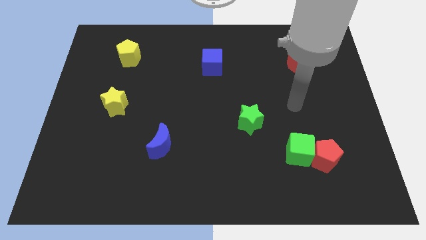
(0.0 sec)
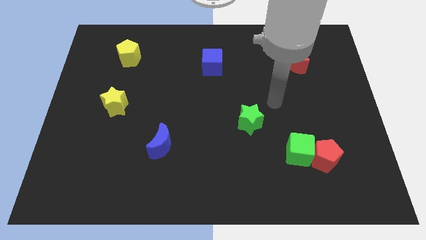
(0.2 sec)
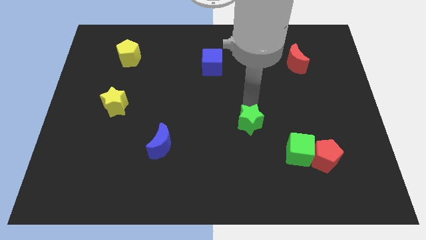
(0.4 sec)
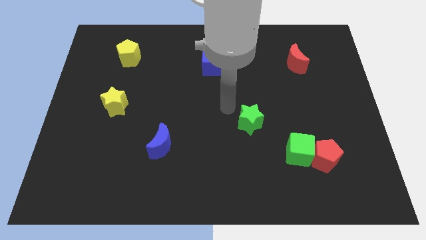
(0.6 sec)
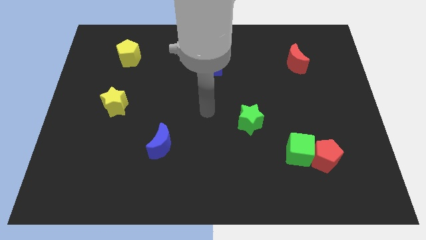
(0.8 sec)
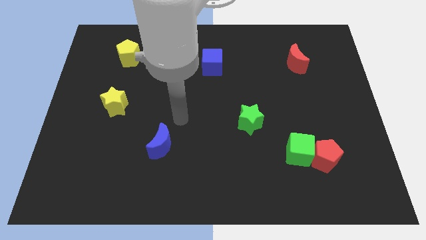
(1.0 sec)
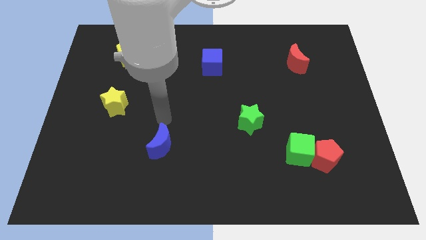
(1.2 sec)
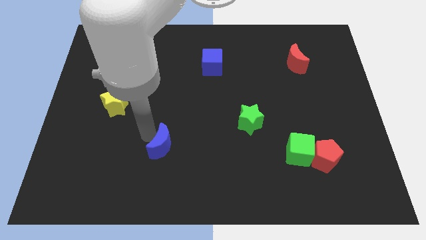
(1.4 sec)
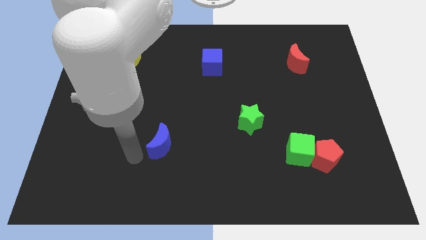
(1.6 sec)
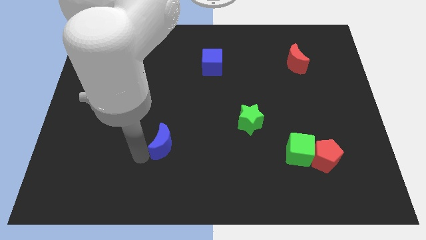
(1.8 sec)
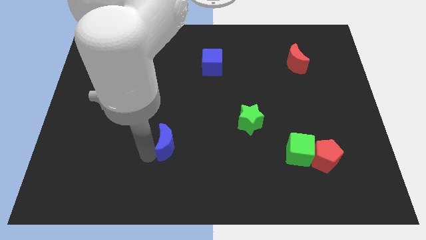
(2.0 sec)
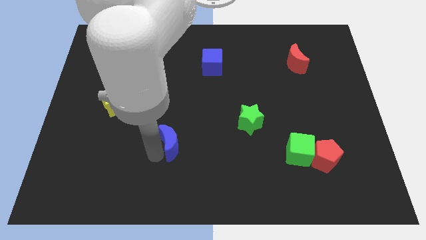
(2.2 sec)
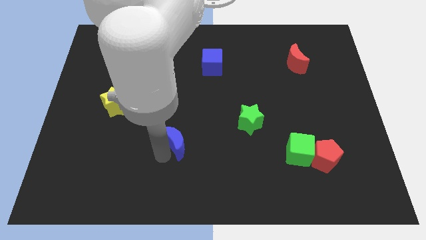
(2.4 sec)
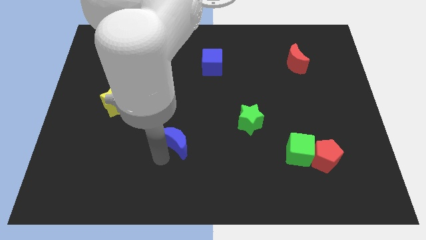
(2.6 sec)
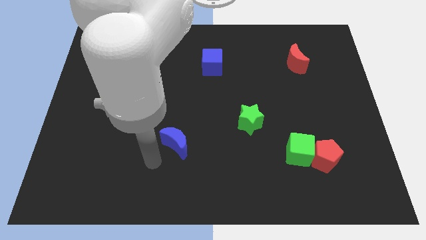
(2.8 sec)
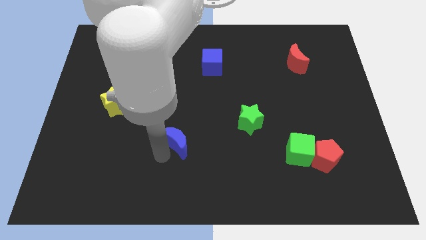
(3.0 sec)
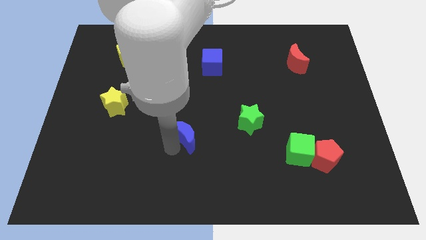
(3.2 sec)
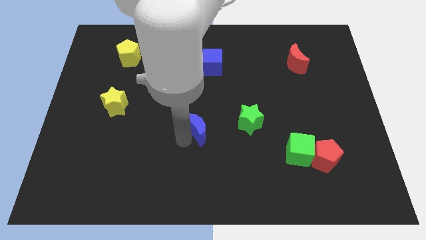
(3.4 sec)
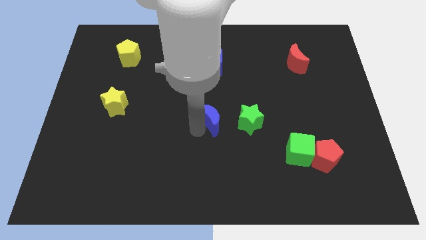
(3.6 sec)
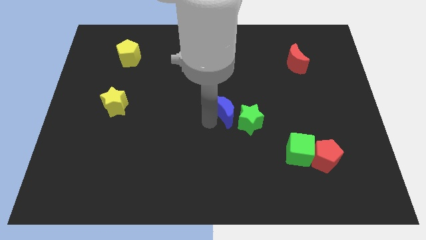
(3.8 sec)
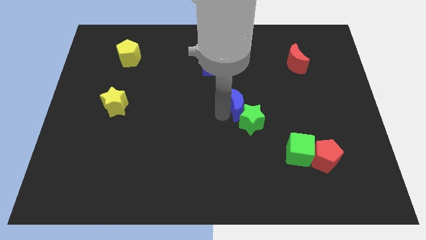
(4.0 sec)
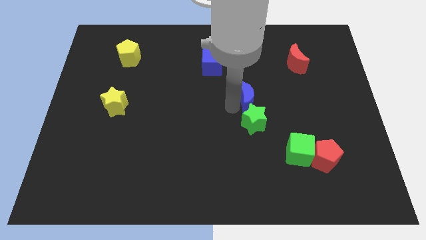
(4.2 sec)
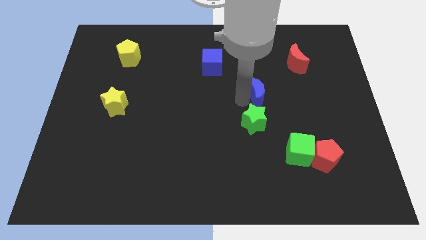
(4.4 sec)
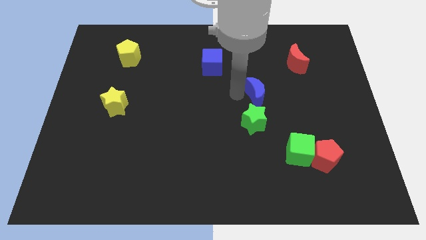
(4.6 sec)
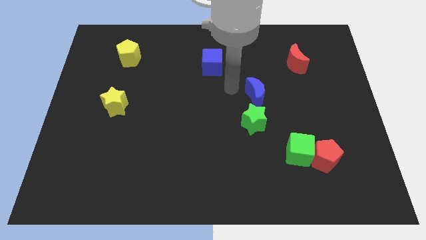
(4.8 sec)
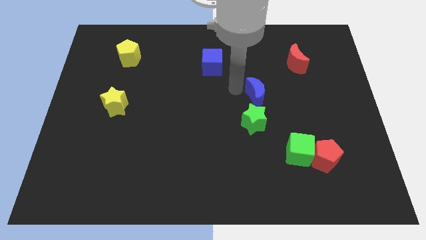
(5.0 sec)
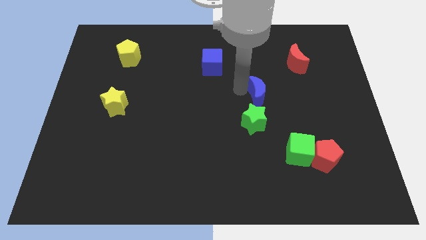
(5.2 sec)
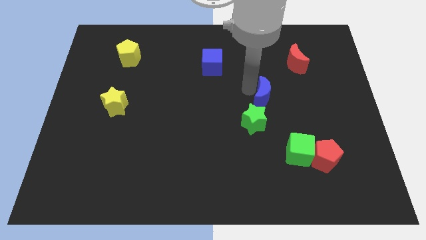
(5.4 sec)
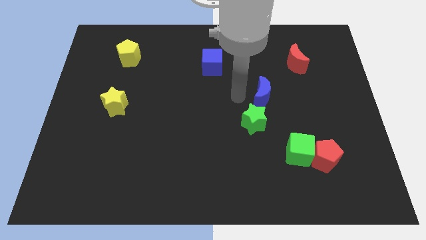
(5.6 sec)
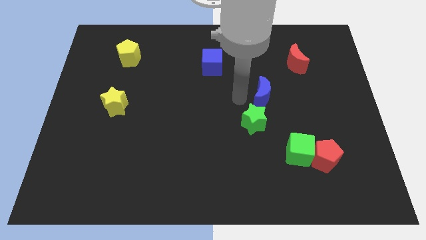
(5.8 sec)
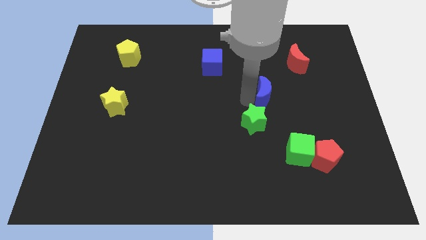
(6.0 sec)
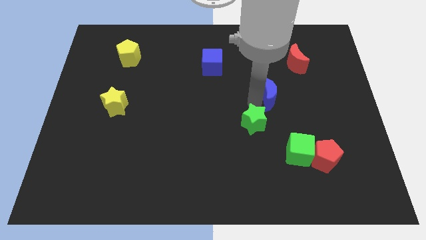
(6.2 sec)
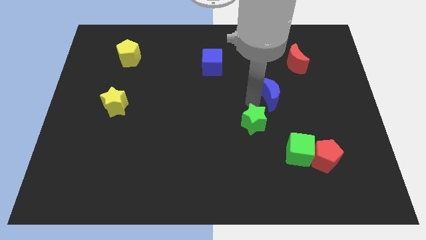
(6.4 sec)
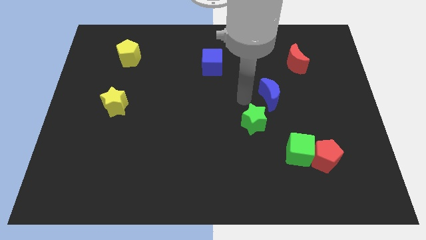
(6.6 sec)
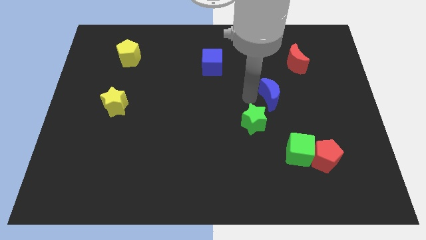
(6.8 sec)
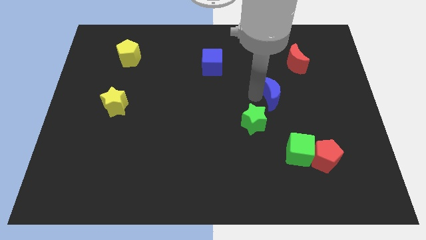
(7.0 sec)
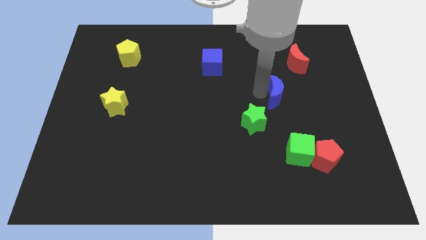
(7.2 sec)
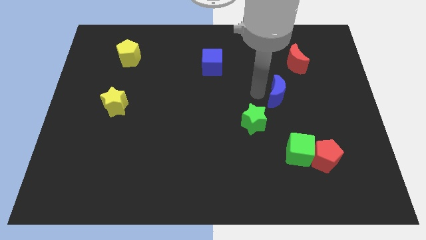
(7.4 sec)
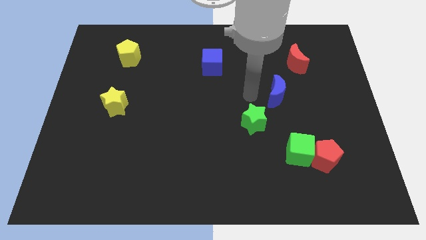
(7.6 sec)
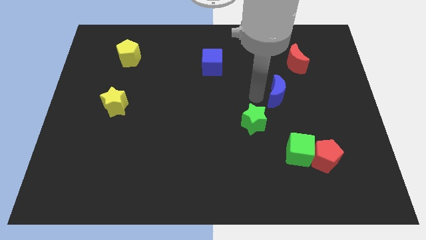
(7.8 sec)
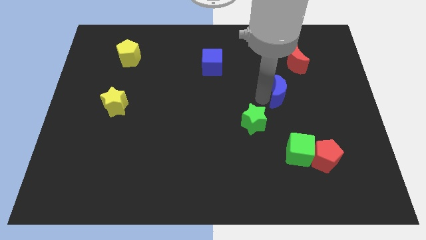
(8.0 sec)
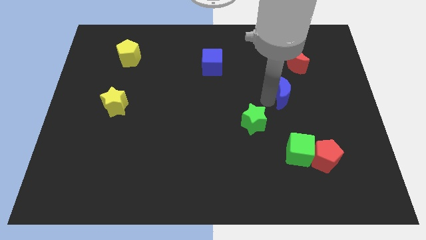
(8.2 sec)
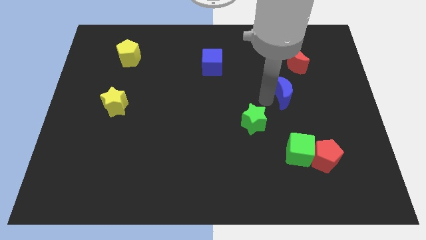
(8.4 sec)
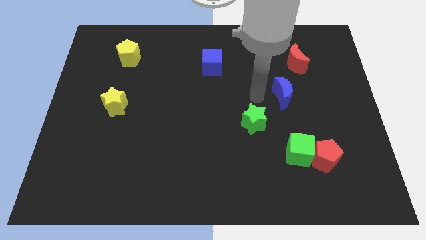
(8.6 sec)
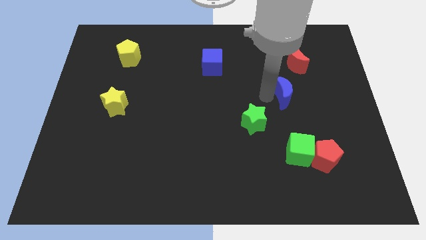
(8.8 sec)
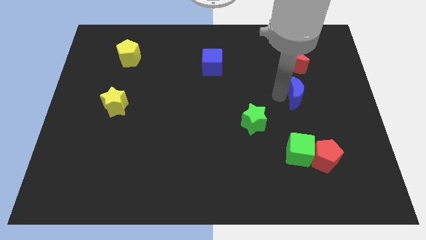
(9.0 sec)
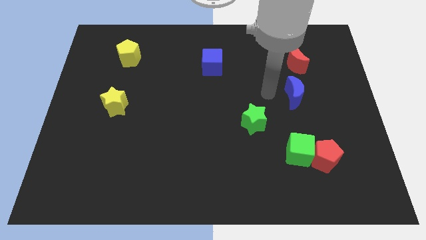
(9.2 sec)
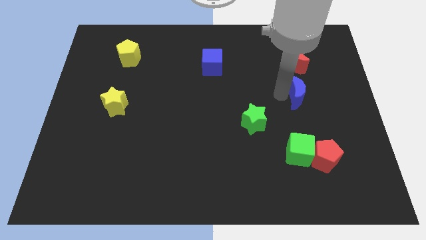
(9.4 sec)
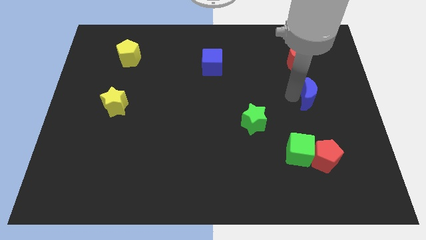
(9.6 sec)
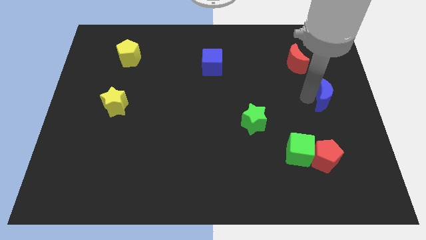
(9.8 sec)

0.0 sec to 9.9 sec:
move the blue moon to the right side

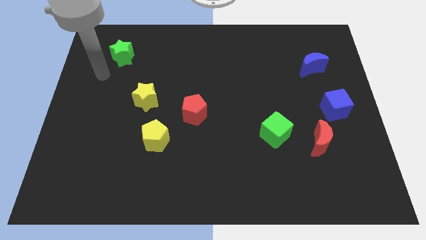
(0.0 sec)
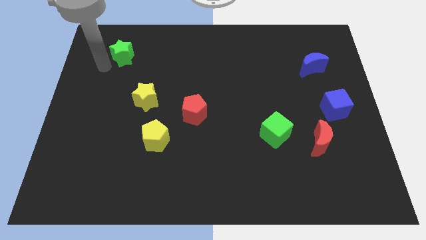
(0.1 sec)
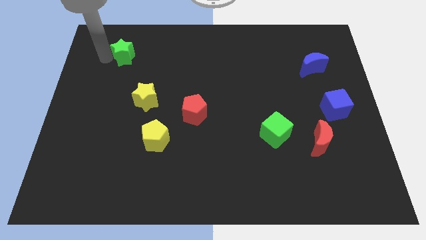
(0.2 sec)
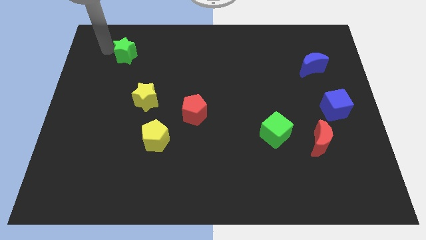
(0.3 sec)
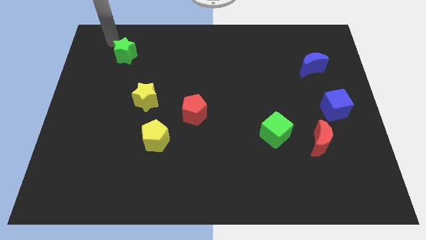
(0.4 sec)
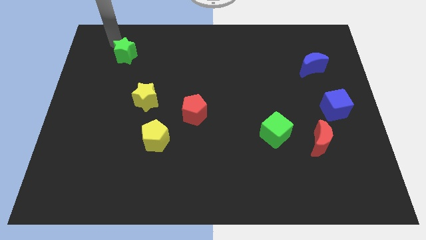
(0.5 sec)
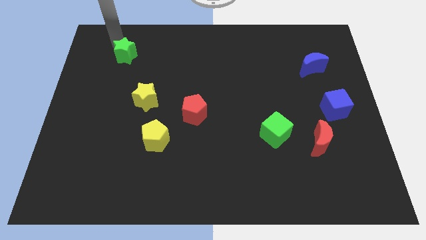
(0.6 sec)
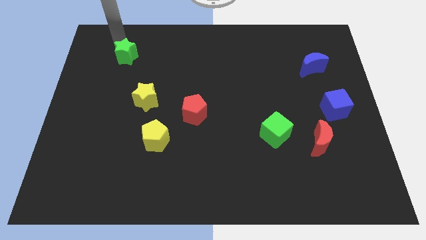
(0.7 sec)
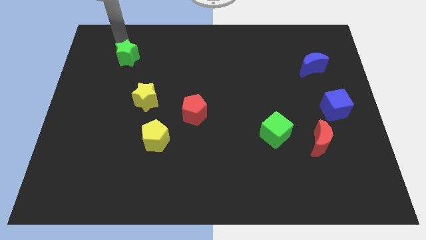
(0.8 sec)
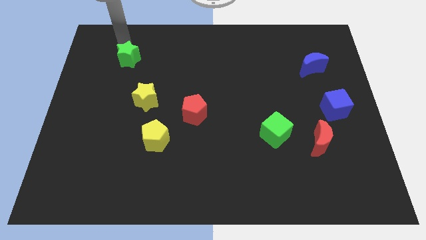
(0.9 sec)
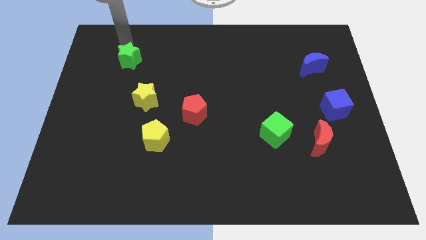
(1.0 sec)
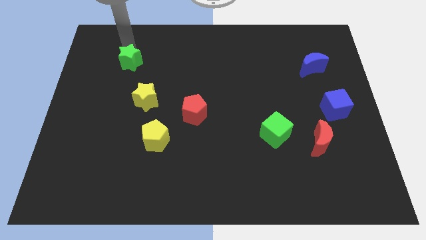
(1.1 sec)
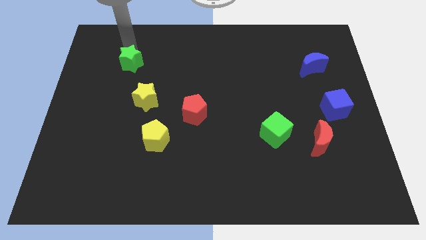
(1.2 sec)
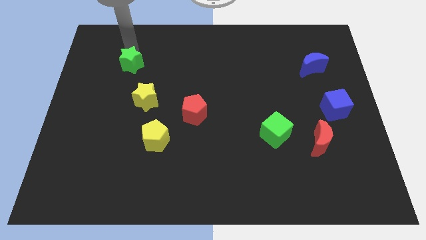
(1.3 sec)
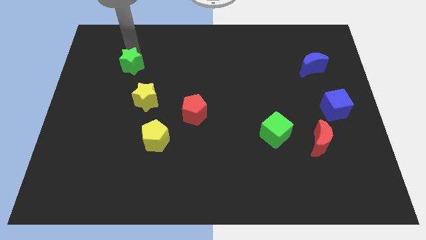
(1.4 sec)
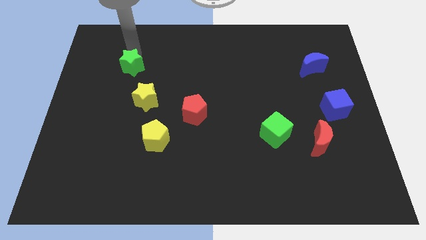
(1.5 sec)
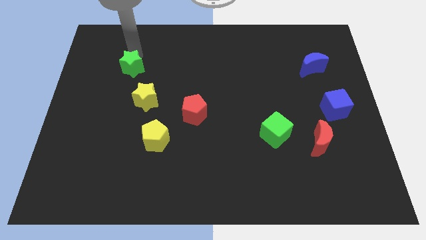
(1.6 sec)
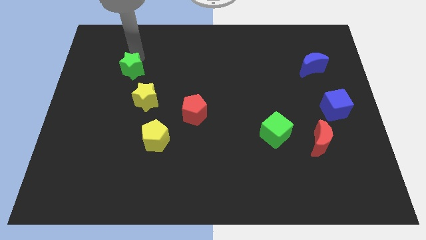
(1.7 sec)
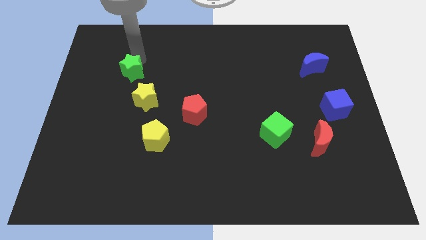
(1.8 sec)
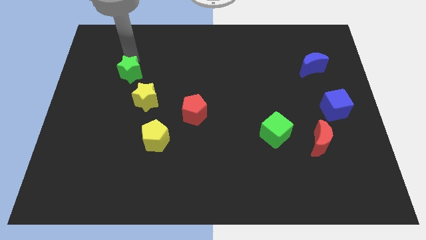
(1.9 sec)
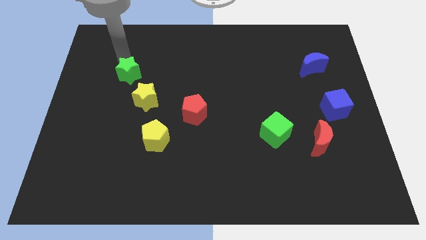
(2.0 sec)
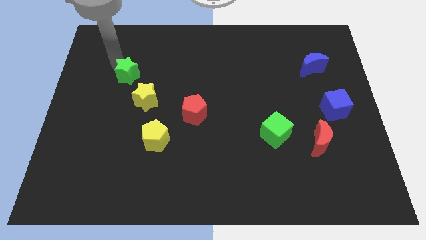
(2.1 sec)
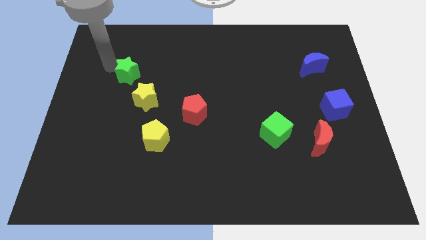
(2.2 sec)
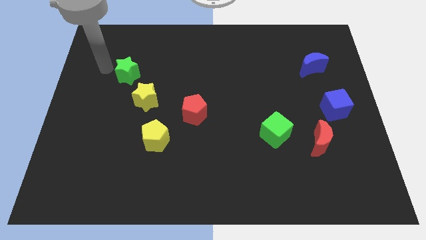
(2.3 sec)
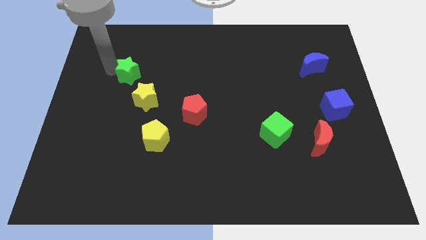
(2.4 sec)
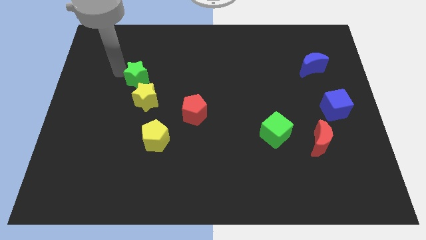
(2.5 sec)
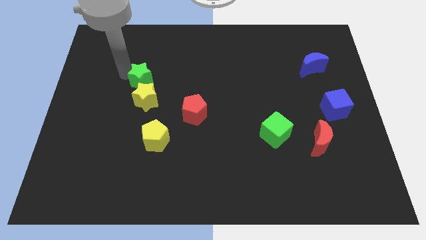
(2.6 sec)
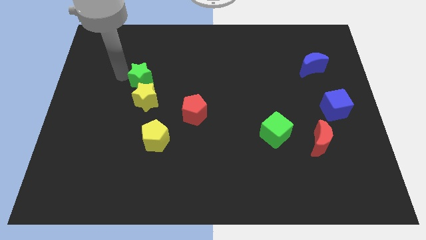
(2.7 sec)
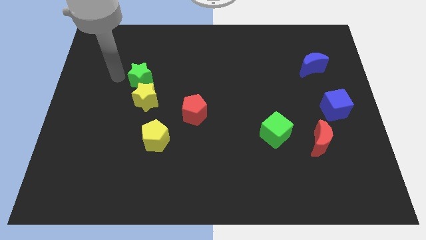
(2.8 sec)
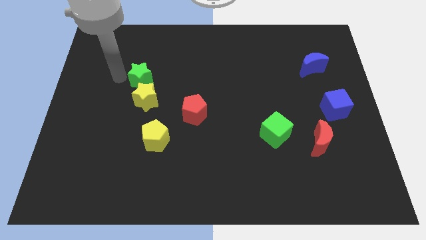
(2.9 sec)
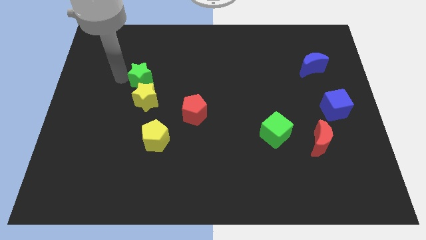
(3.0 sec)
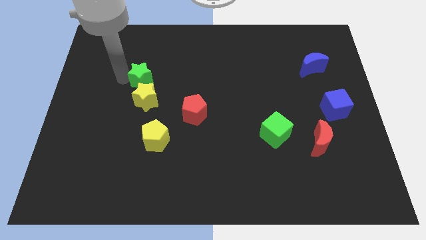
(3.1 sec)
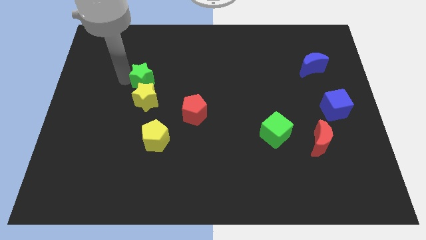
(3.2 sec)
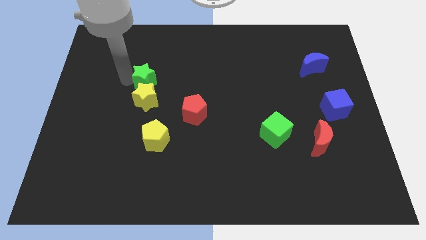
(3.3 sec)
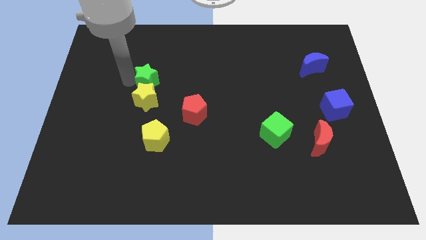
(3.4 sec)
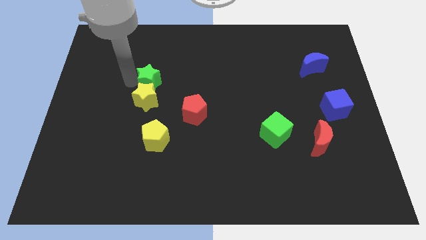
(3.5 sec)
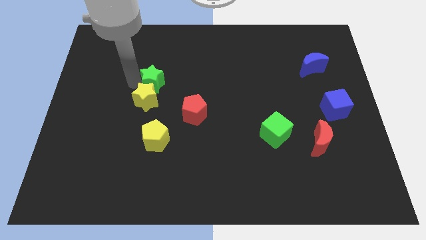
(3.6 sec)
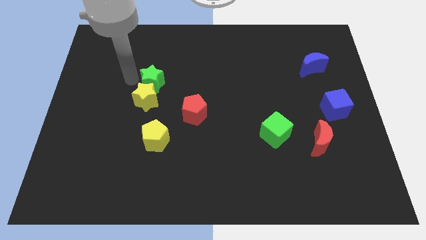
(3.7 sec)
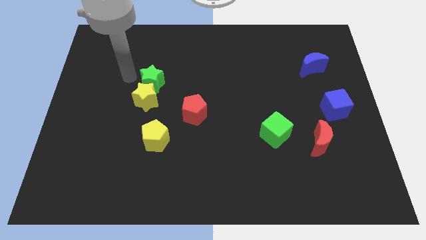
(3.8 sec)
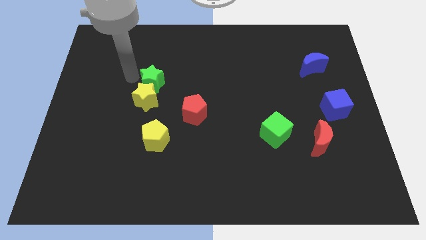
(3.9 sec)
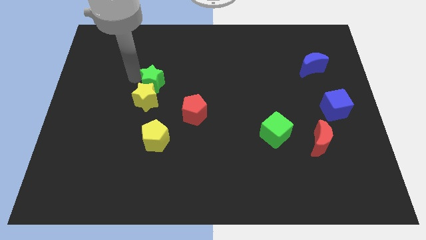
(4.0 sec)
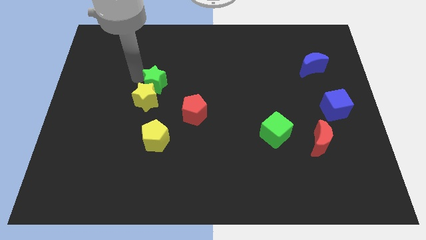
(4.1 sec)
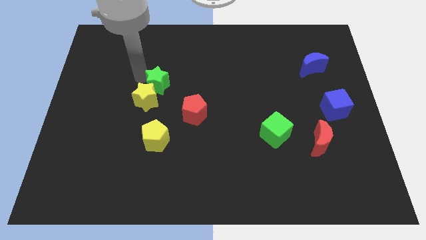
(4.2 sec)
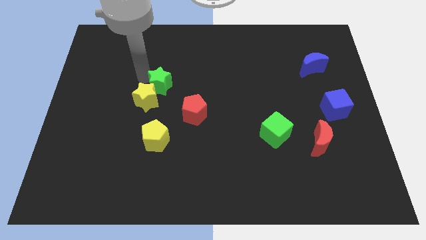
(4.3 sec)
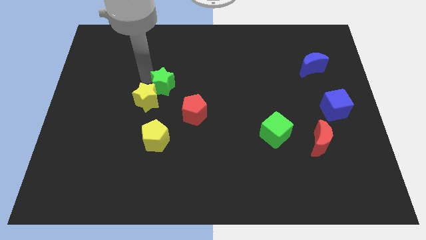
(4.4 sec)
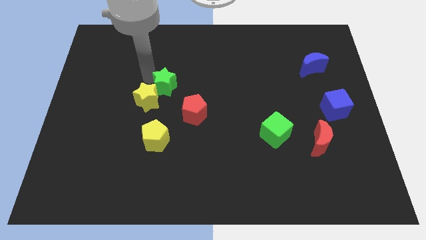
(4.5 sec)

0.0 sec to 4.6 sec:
move the green star to the middle of the board
